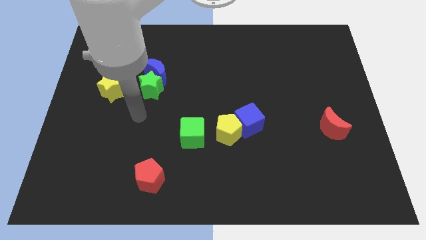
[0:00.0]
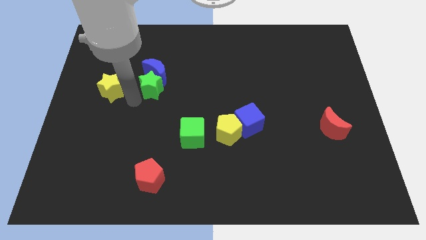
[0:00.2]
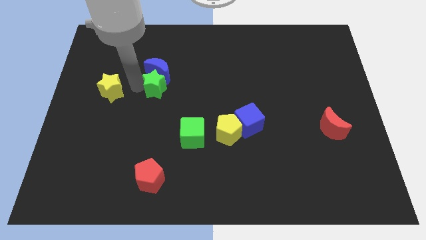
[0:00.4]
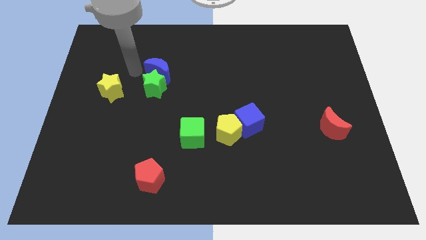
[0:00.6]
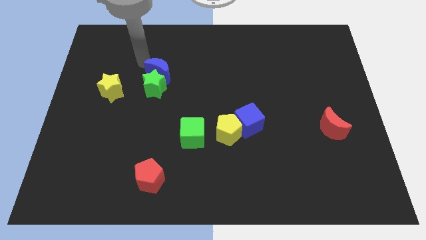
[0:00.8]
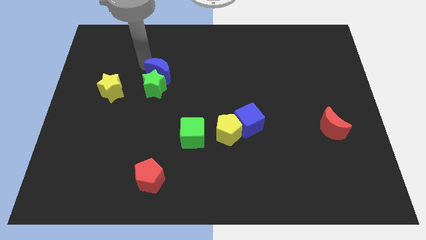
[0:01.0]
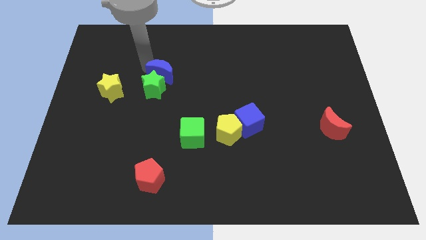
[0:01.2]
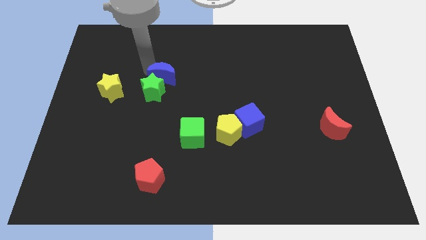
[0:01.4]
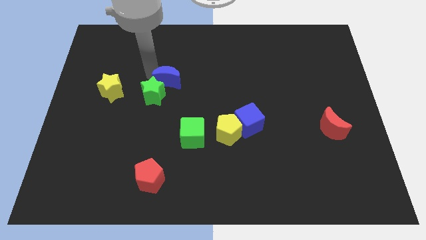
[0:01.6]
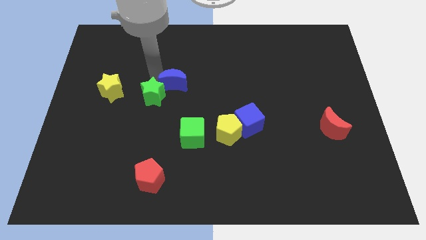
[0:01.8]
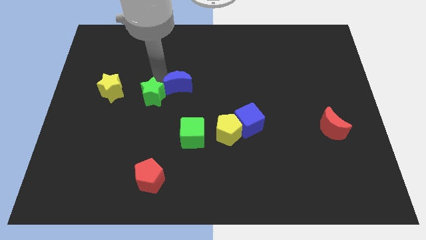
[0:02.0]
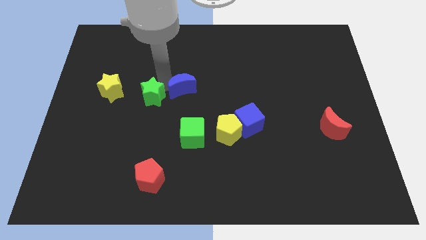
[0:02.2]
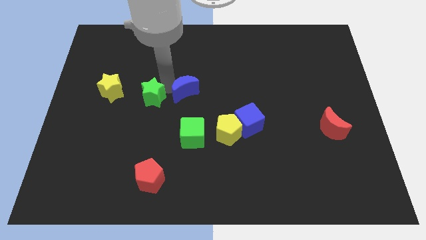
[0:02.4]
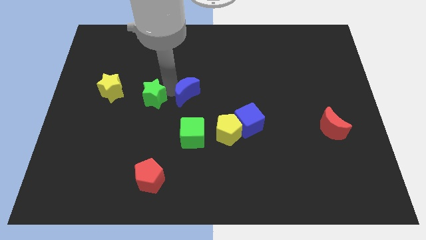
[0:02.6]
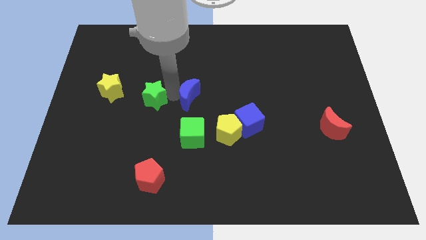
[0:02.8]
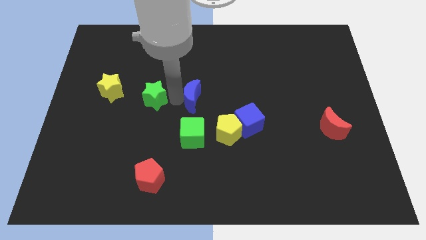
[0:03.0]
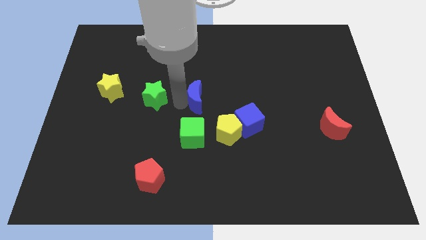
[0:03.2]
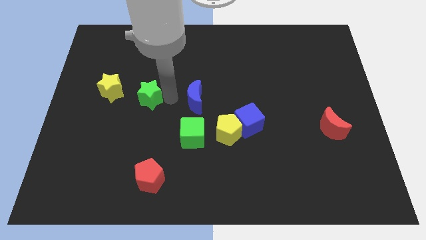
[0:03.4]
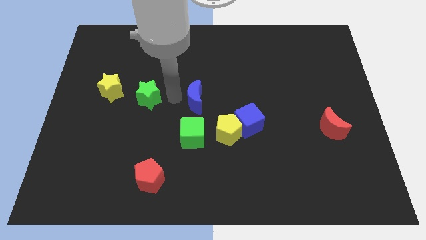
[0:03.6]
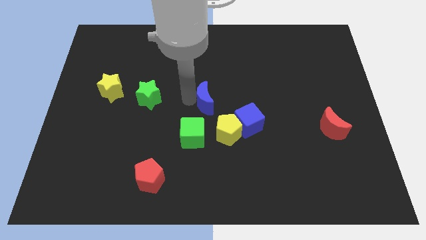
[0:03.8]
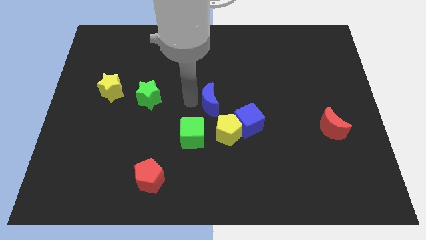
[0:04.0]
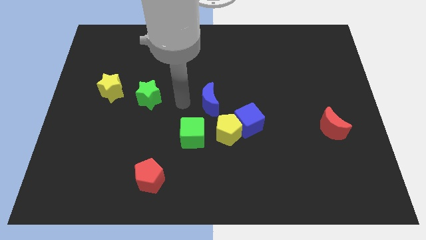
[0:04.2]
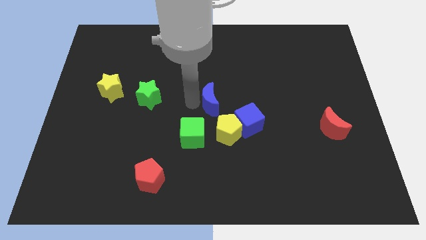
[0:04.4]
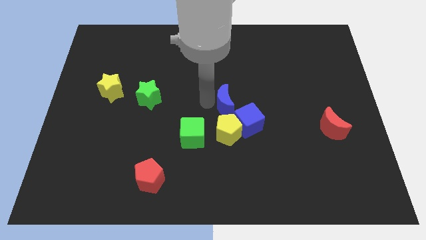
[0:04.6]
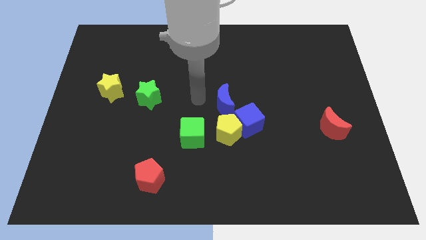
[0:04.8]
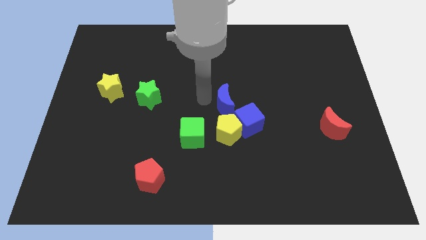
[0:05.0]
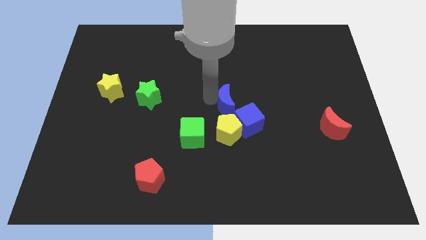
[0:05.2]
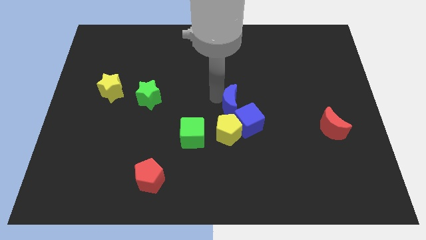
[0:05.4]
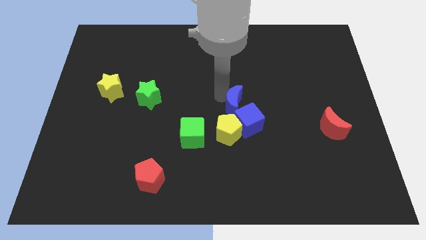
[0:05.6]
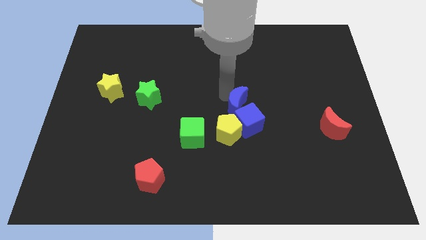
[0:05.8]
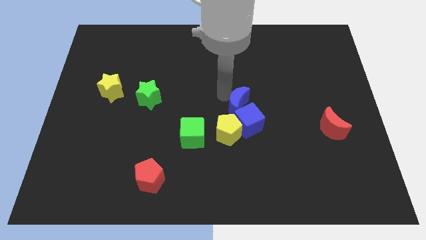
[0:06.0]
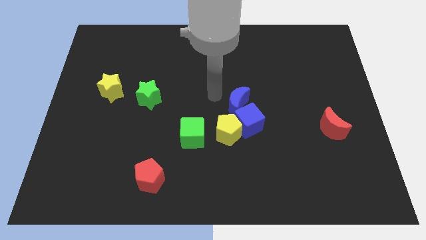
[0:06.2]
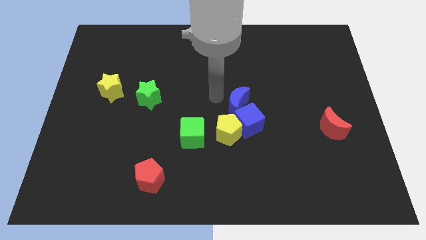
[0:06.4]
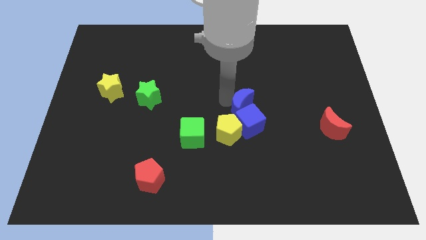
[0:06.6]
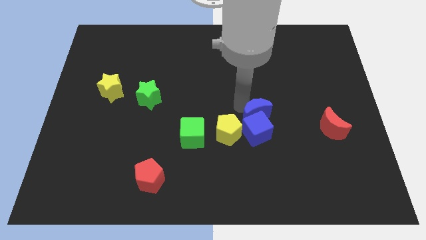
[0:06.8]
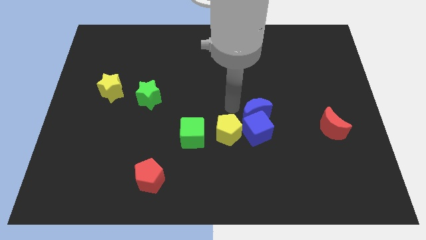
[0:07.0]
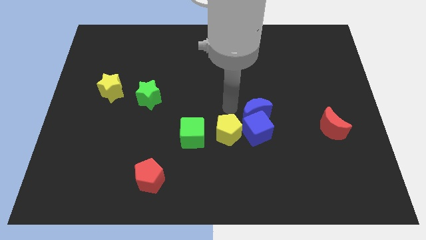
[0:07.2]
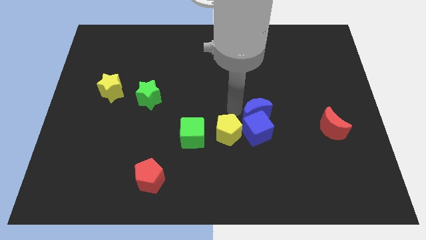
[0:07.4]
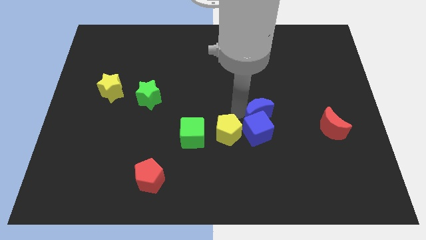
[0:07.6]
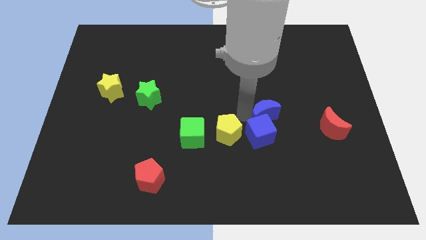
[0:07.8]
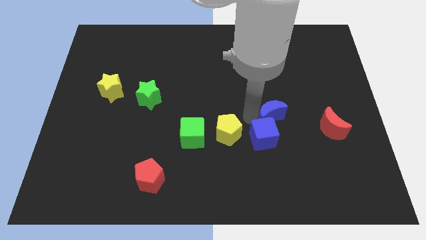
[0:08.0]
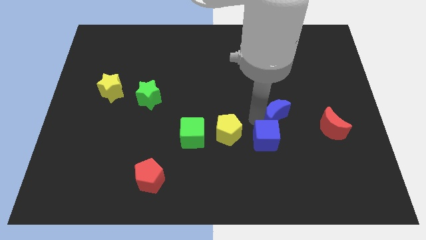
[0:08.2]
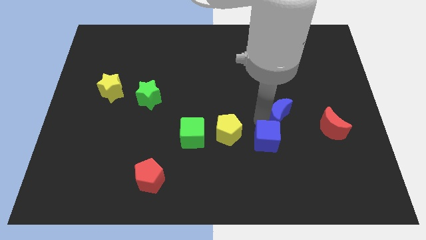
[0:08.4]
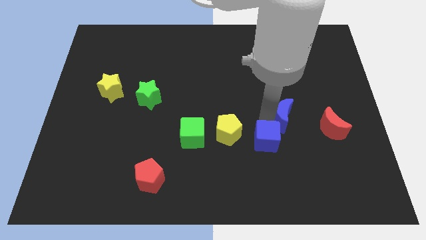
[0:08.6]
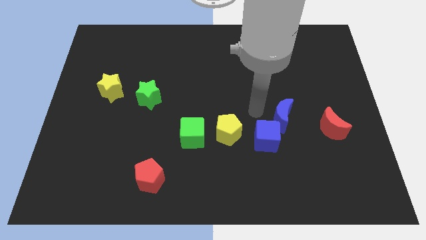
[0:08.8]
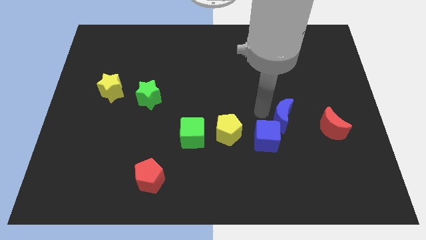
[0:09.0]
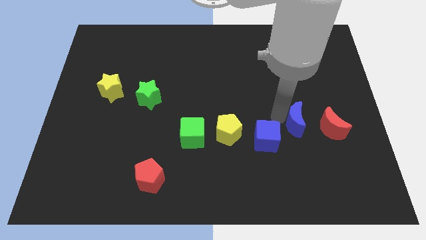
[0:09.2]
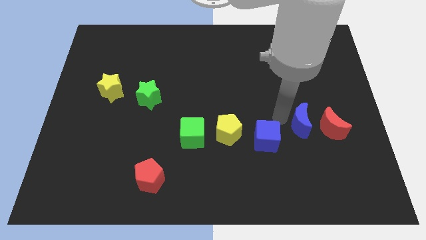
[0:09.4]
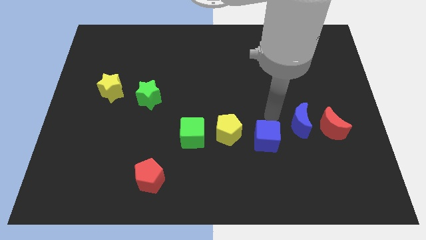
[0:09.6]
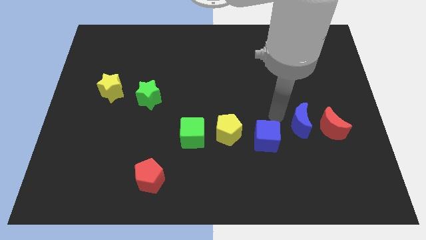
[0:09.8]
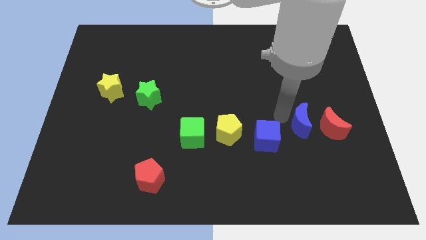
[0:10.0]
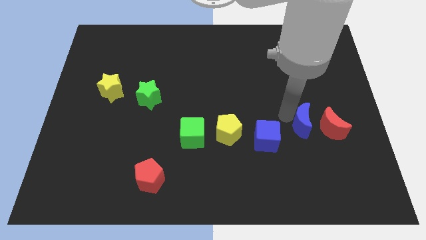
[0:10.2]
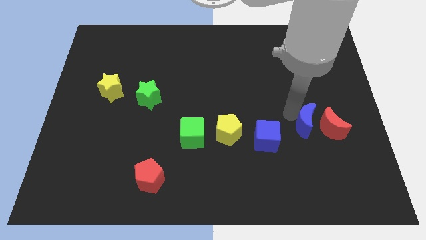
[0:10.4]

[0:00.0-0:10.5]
push the blue moon close to the red moon

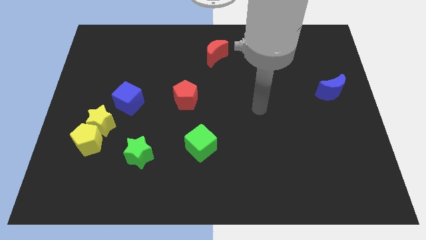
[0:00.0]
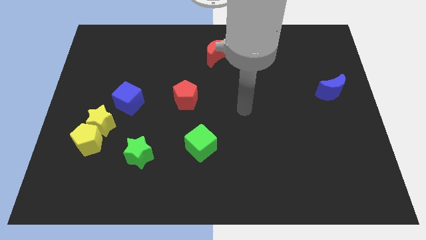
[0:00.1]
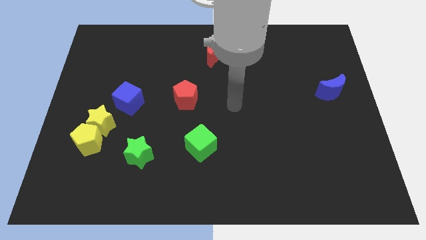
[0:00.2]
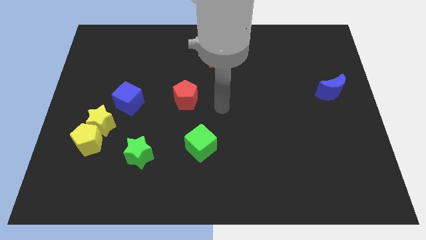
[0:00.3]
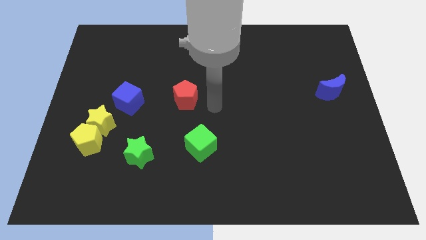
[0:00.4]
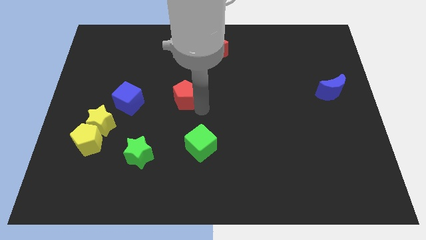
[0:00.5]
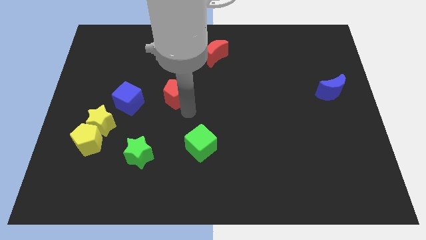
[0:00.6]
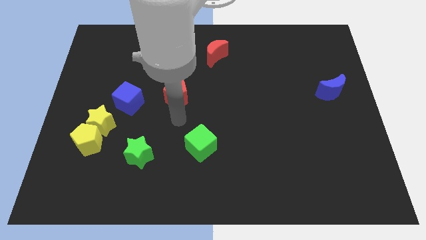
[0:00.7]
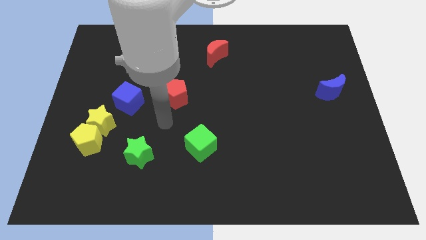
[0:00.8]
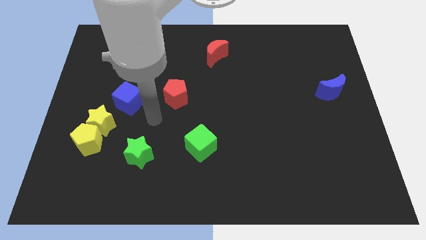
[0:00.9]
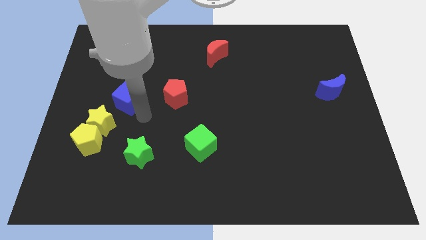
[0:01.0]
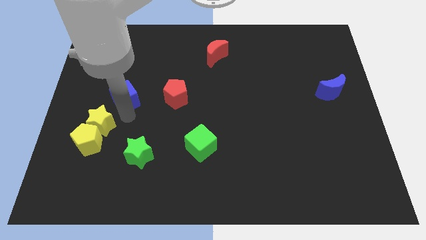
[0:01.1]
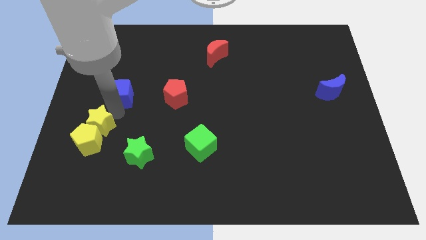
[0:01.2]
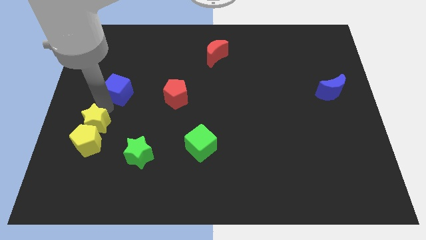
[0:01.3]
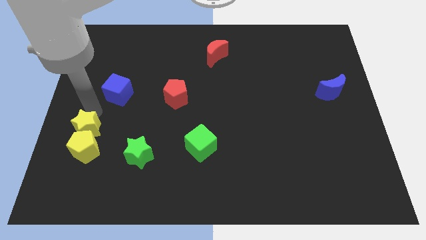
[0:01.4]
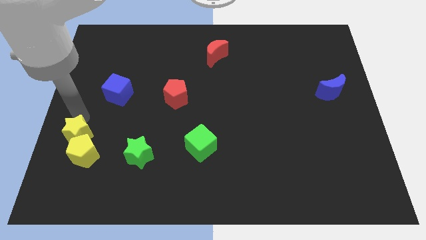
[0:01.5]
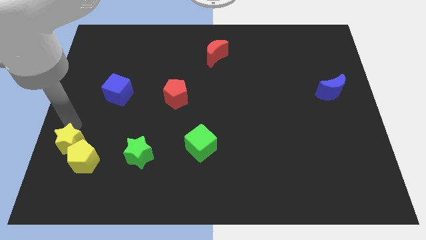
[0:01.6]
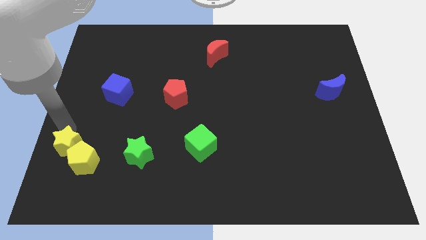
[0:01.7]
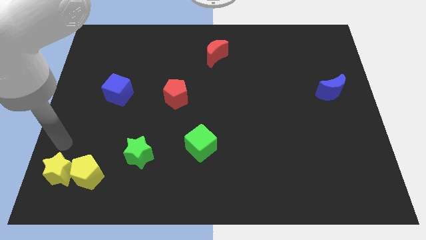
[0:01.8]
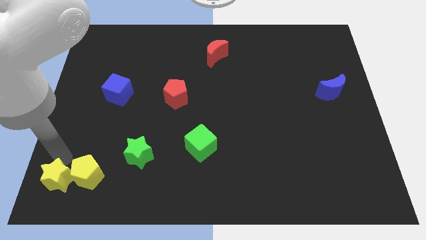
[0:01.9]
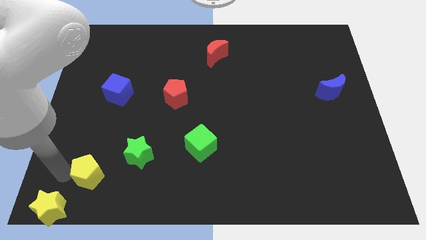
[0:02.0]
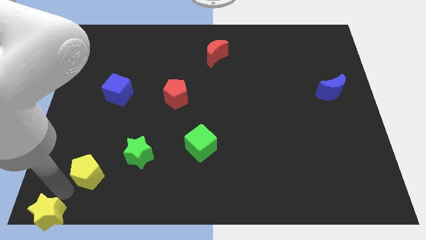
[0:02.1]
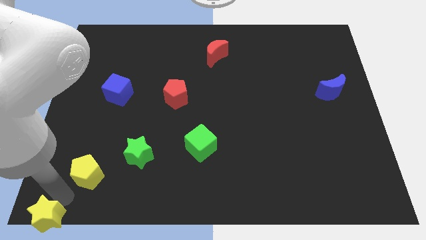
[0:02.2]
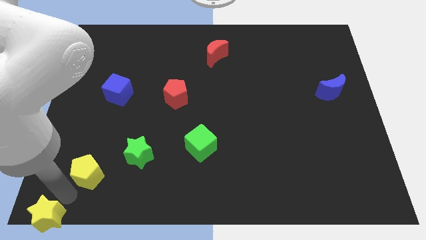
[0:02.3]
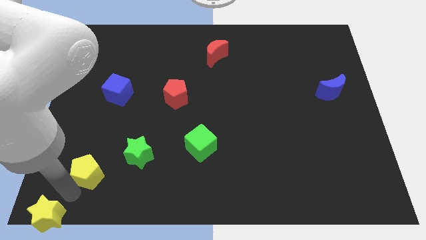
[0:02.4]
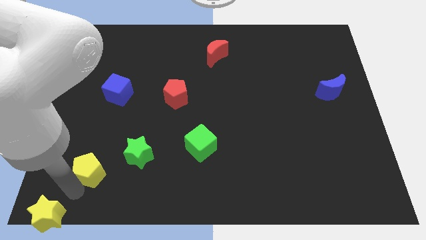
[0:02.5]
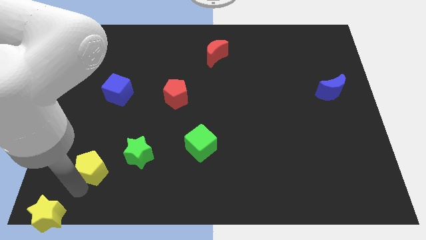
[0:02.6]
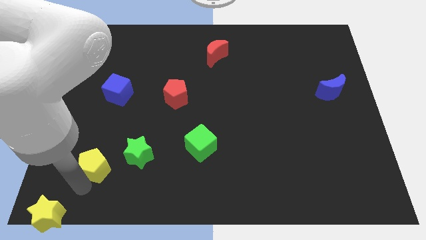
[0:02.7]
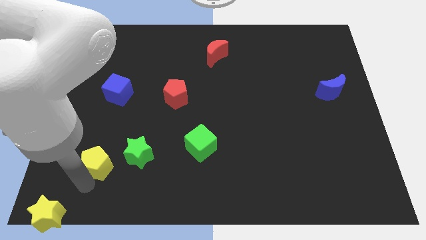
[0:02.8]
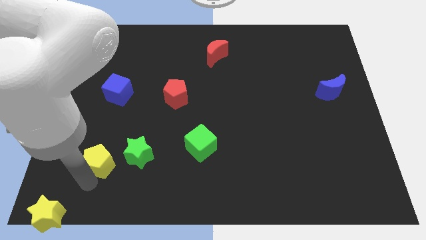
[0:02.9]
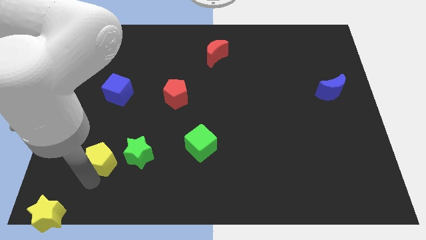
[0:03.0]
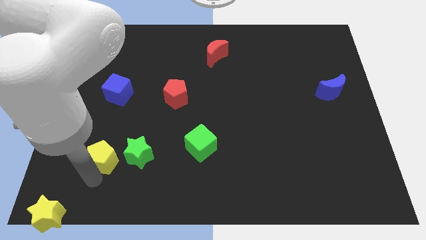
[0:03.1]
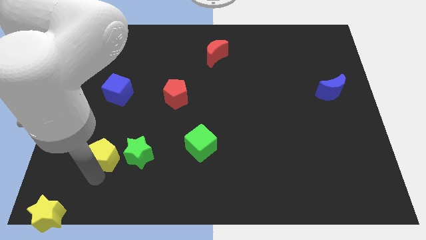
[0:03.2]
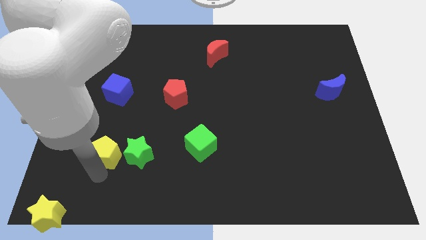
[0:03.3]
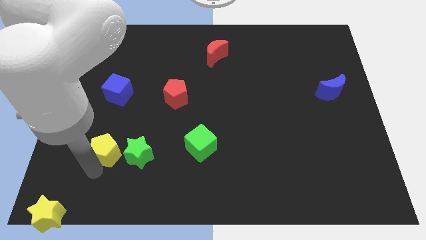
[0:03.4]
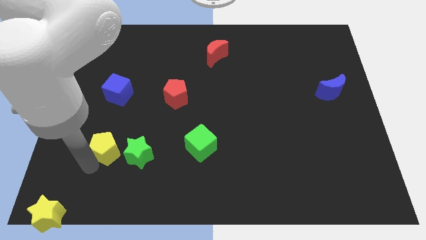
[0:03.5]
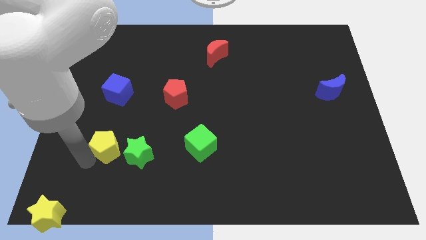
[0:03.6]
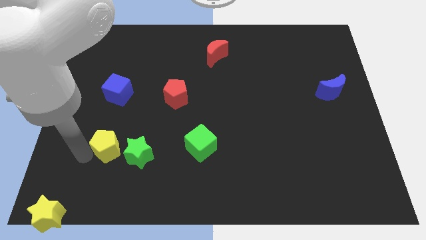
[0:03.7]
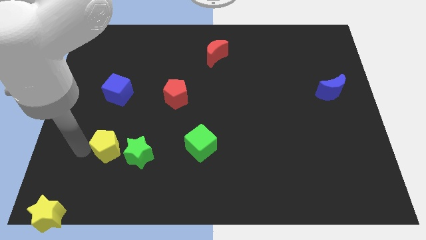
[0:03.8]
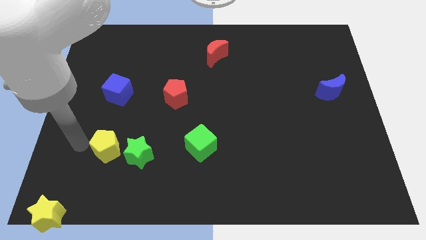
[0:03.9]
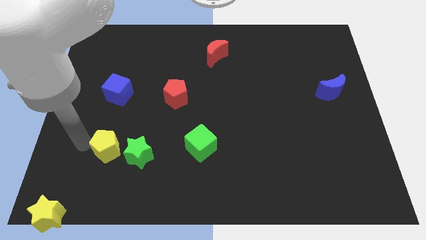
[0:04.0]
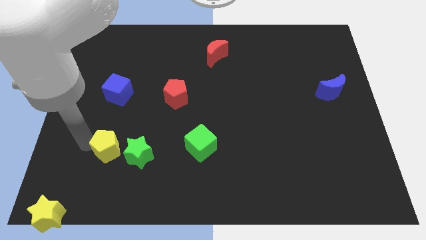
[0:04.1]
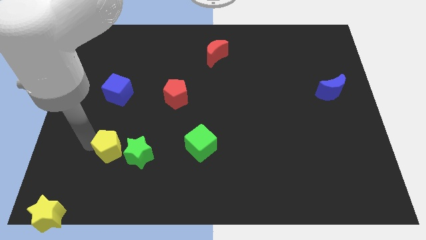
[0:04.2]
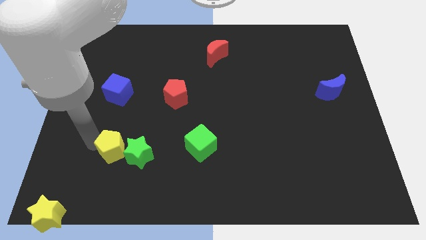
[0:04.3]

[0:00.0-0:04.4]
push the yellow pentagon close to the green star
